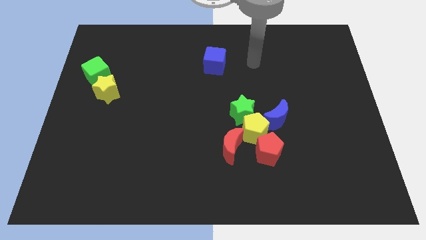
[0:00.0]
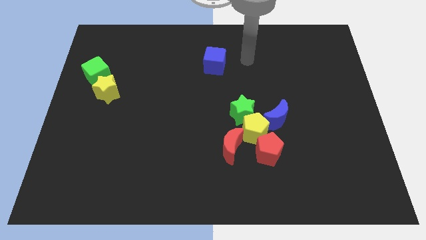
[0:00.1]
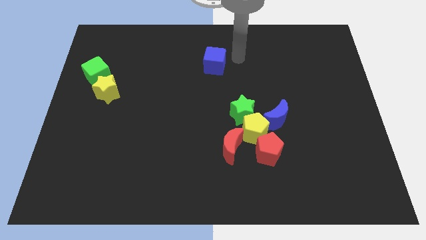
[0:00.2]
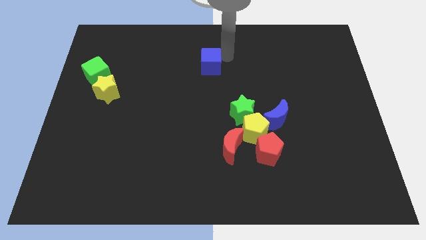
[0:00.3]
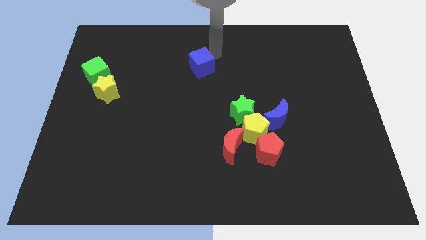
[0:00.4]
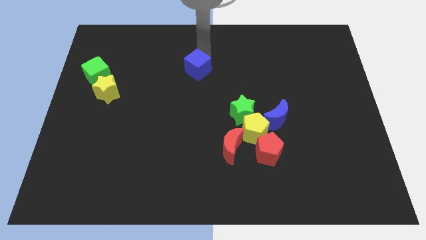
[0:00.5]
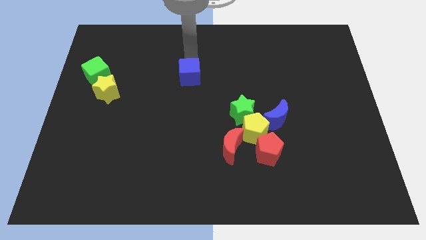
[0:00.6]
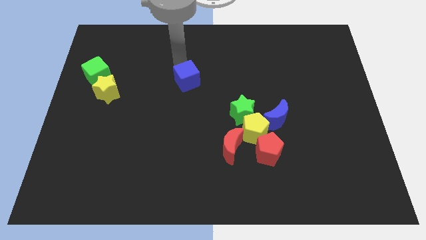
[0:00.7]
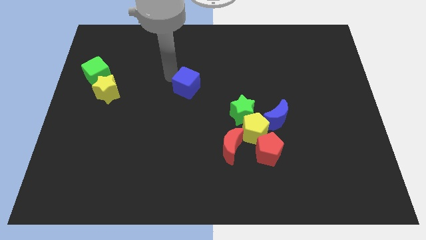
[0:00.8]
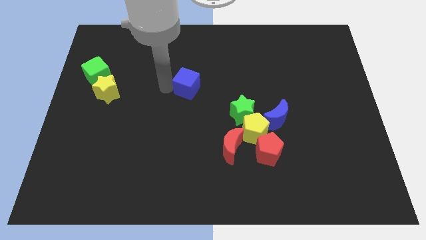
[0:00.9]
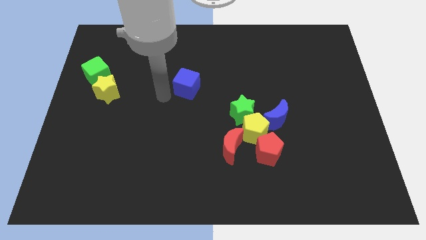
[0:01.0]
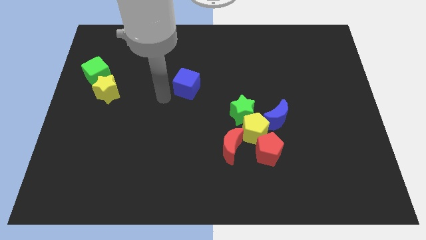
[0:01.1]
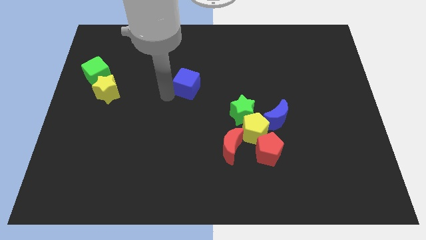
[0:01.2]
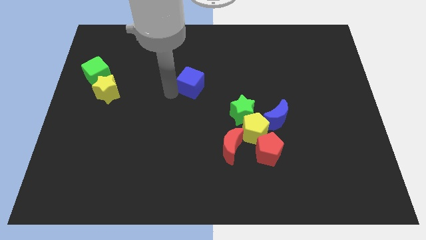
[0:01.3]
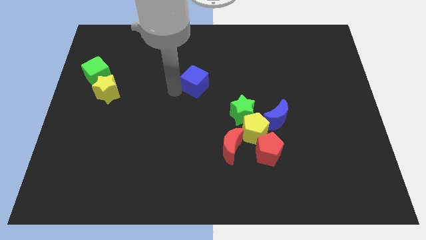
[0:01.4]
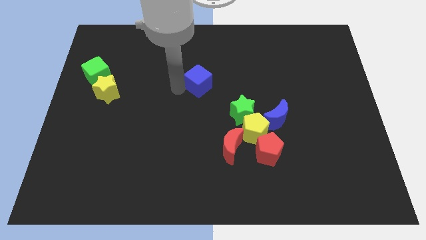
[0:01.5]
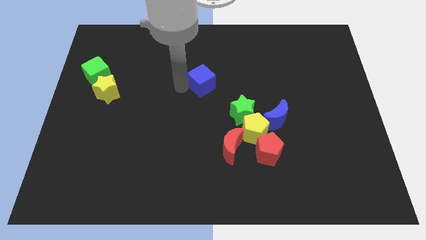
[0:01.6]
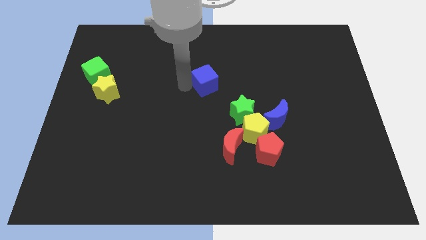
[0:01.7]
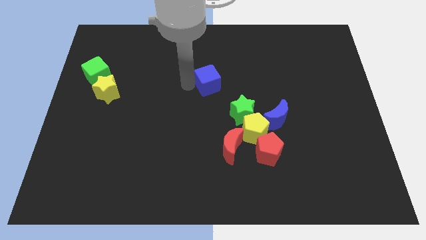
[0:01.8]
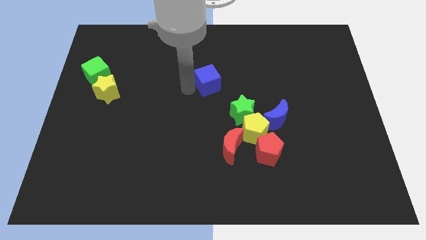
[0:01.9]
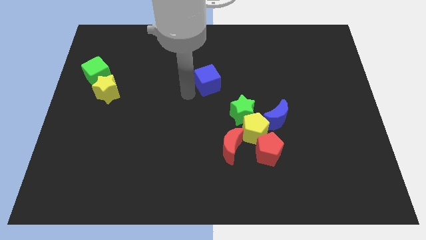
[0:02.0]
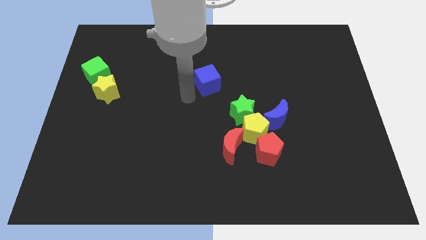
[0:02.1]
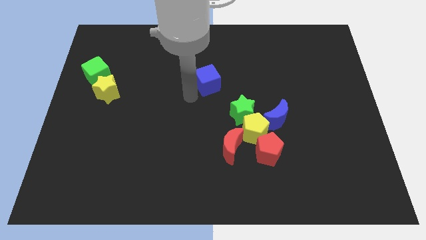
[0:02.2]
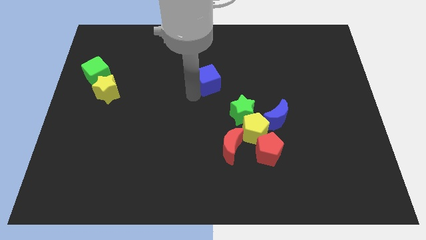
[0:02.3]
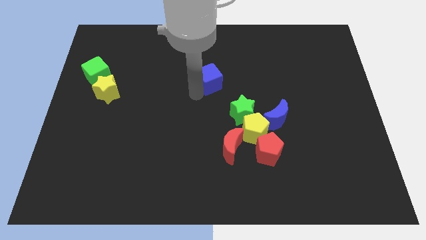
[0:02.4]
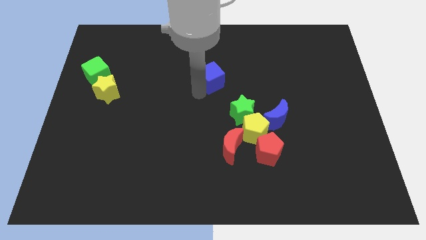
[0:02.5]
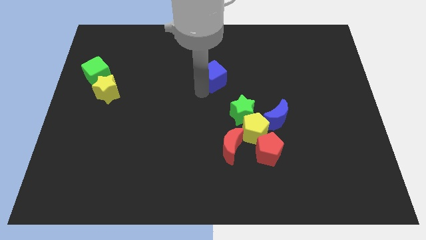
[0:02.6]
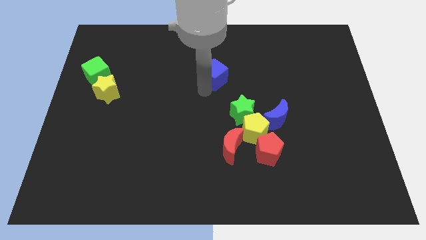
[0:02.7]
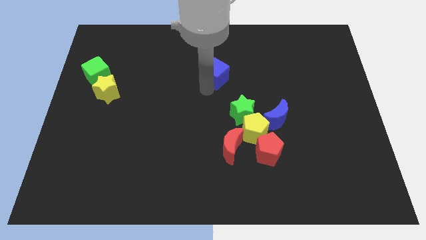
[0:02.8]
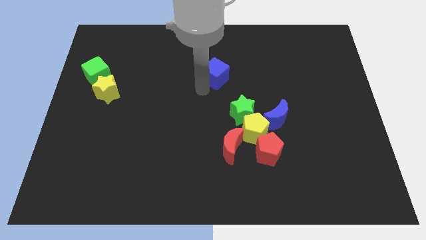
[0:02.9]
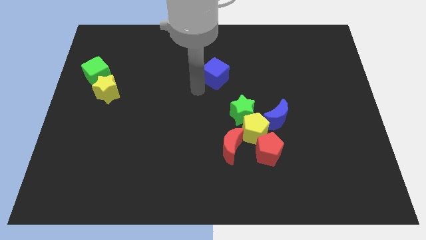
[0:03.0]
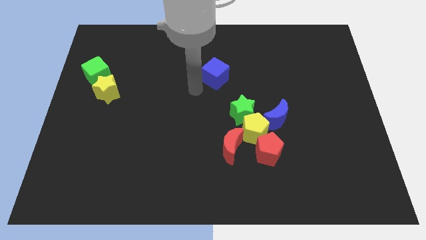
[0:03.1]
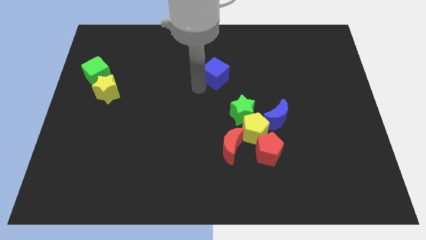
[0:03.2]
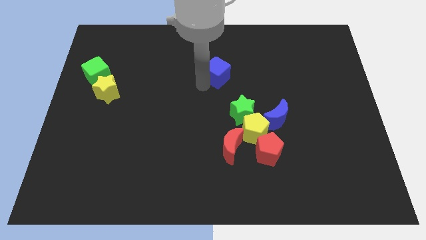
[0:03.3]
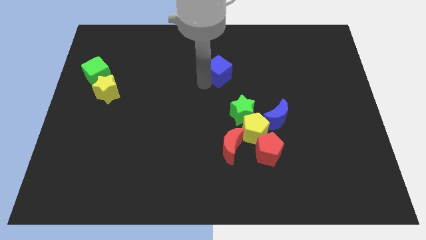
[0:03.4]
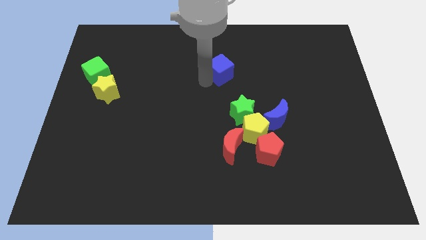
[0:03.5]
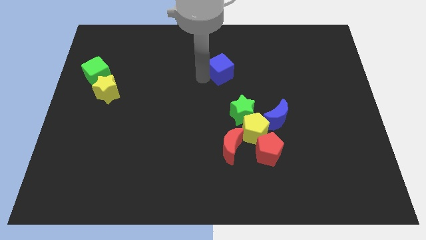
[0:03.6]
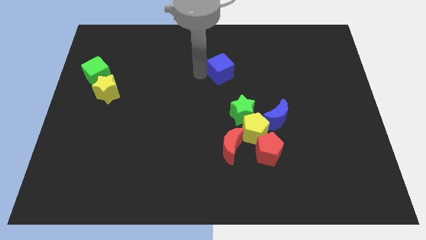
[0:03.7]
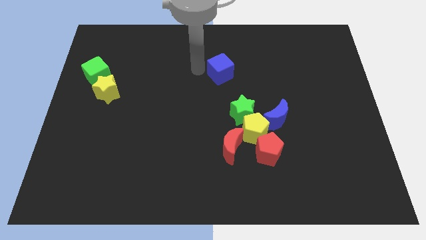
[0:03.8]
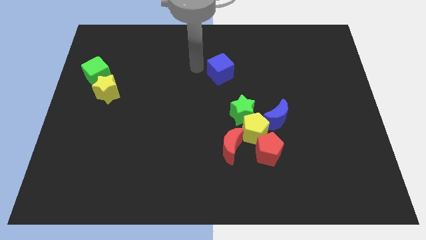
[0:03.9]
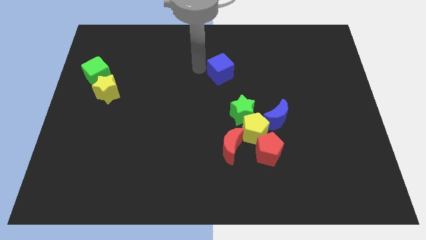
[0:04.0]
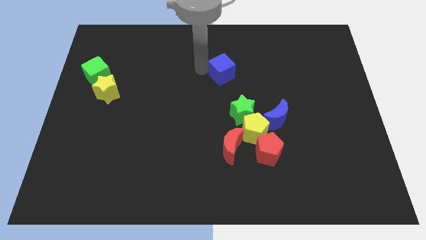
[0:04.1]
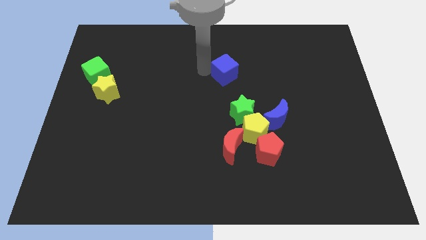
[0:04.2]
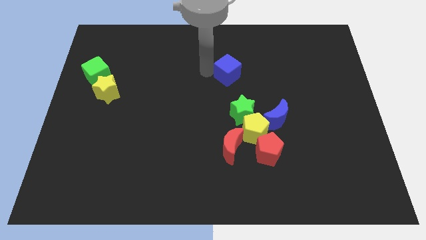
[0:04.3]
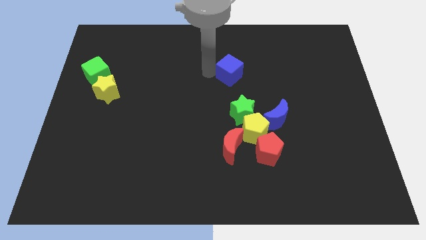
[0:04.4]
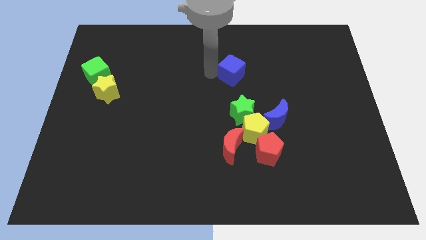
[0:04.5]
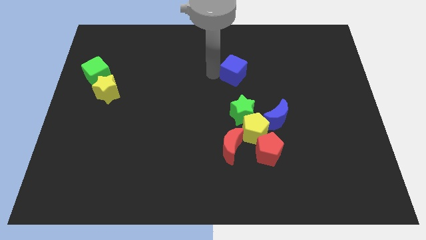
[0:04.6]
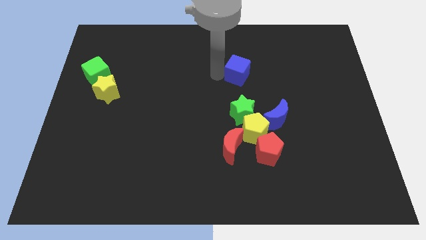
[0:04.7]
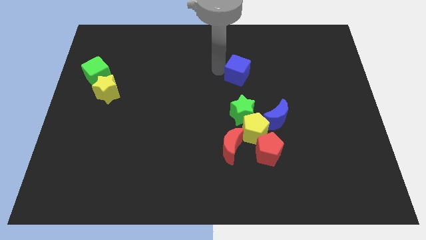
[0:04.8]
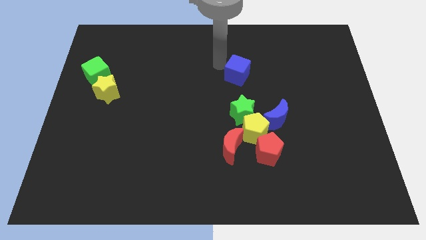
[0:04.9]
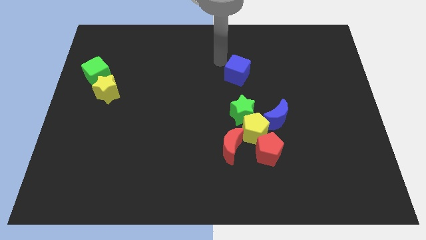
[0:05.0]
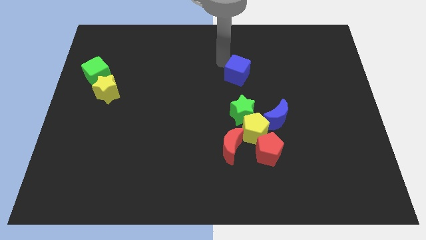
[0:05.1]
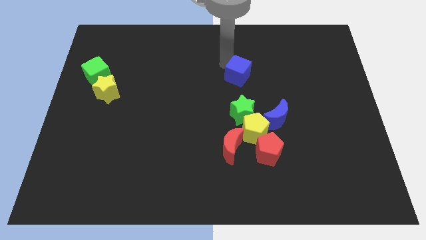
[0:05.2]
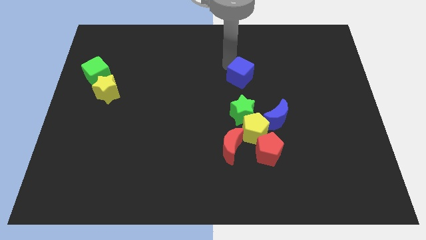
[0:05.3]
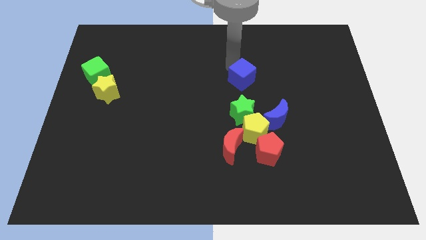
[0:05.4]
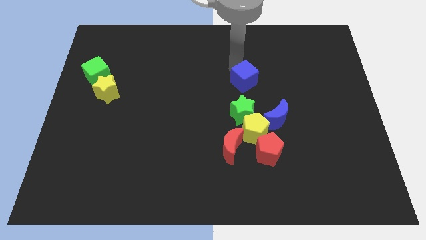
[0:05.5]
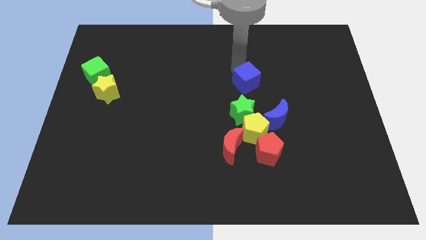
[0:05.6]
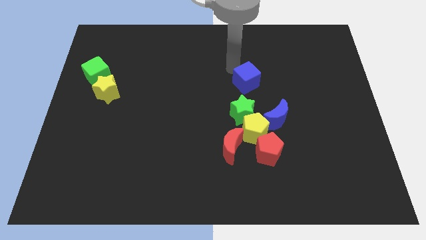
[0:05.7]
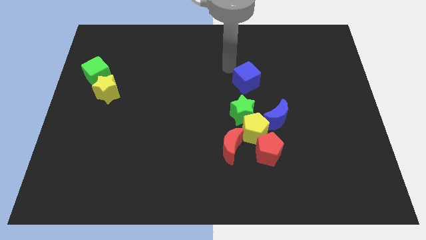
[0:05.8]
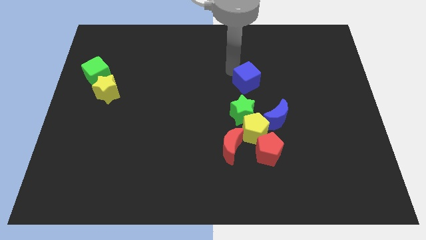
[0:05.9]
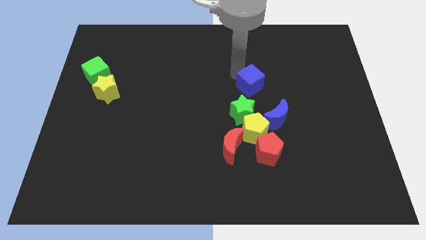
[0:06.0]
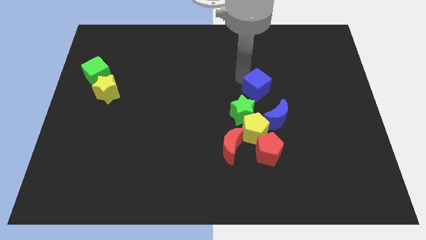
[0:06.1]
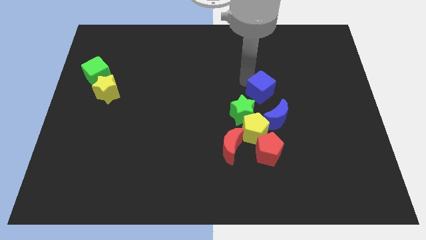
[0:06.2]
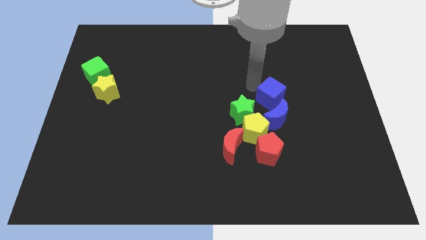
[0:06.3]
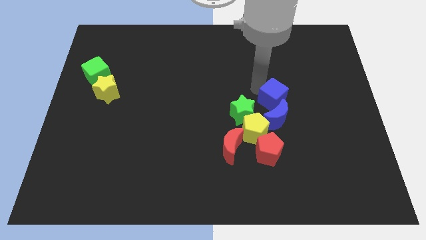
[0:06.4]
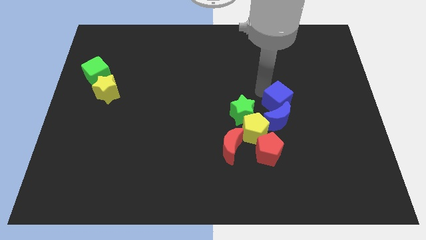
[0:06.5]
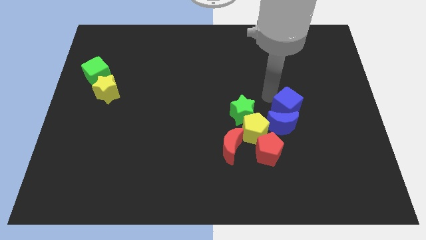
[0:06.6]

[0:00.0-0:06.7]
move the blue cube diagonally downwards and right

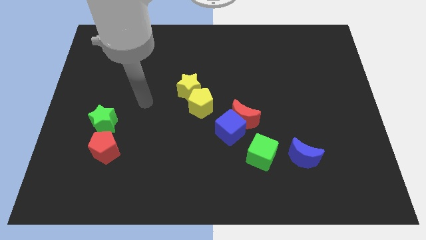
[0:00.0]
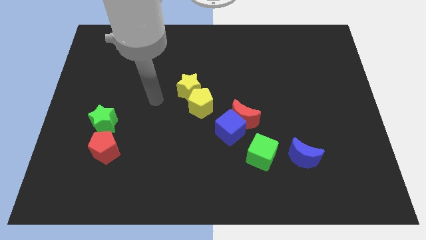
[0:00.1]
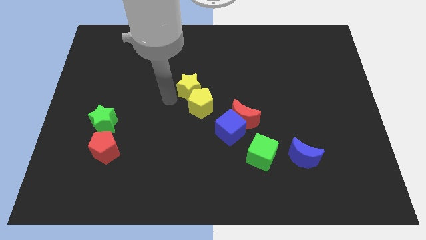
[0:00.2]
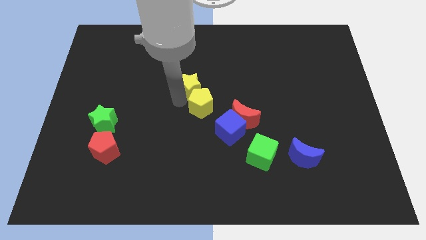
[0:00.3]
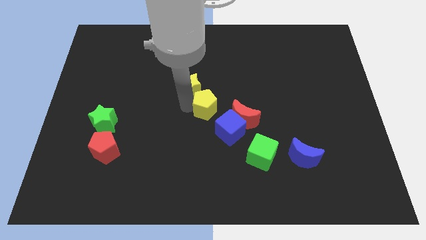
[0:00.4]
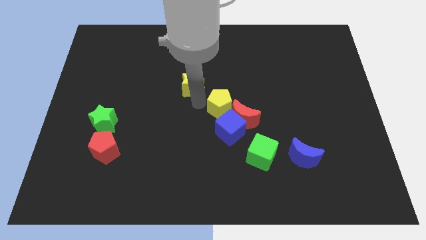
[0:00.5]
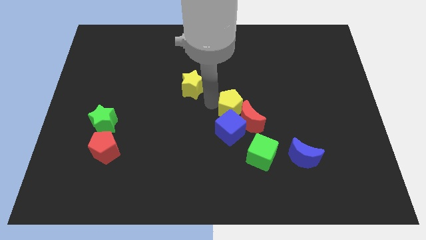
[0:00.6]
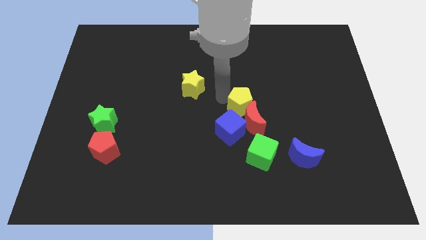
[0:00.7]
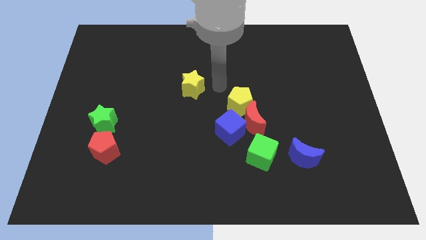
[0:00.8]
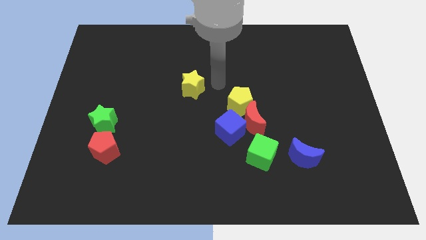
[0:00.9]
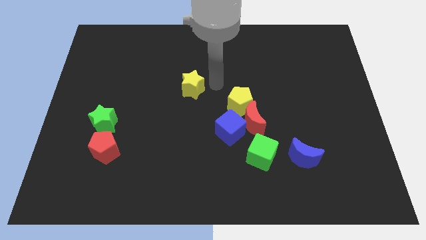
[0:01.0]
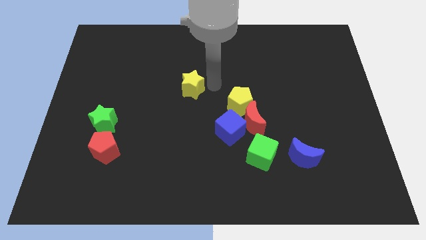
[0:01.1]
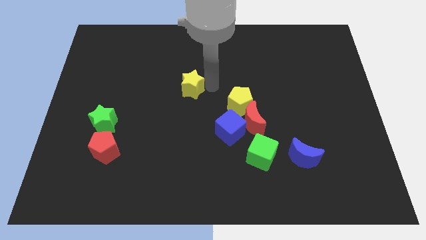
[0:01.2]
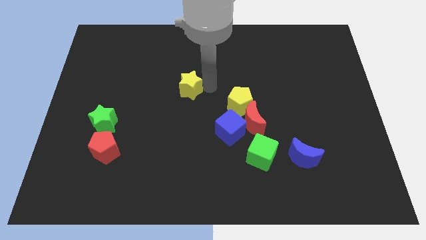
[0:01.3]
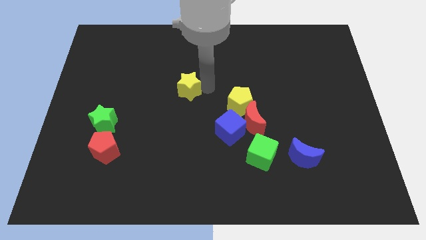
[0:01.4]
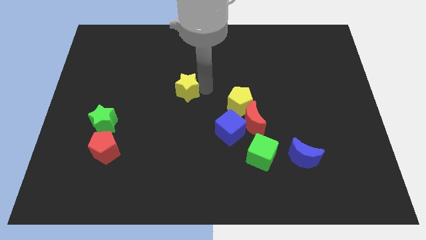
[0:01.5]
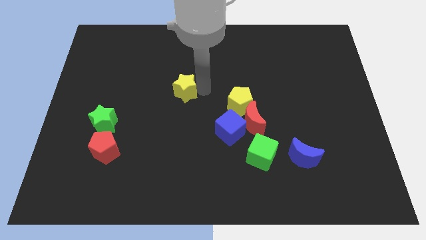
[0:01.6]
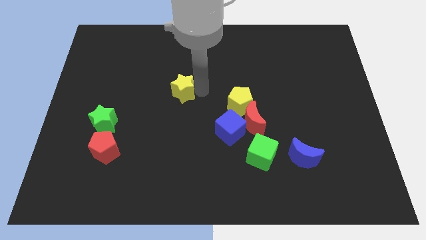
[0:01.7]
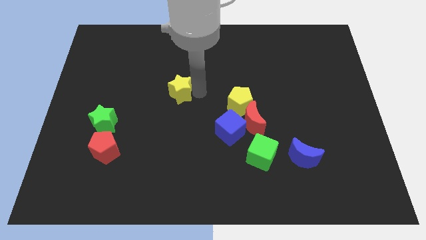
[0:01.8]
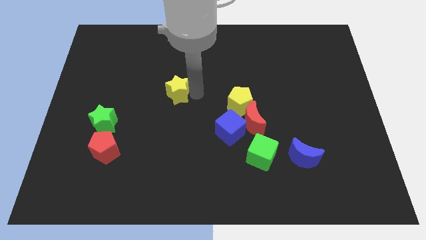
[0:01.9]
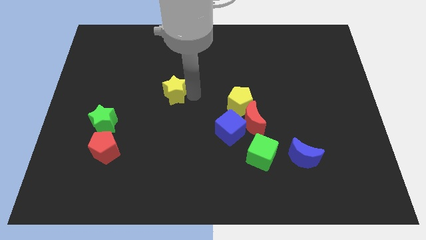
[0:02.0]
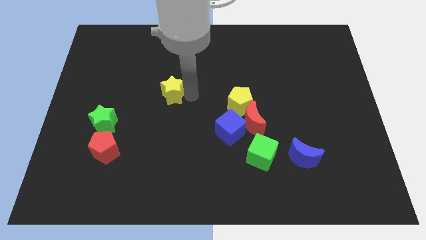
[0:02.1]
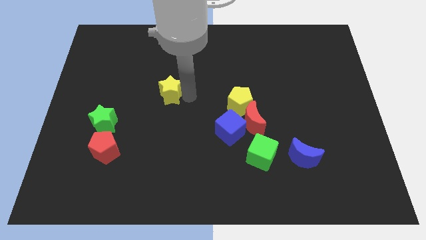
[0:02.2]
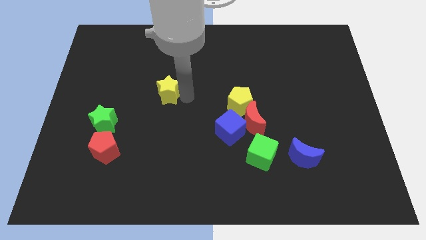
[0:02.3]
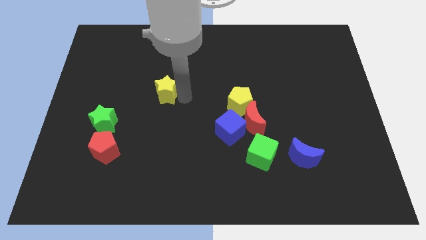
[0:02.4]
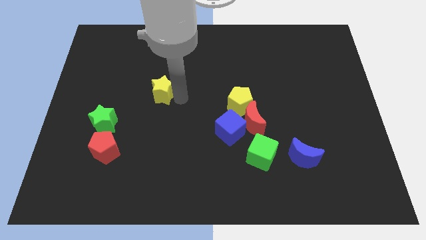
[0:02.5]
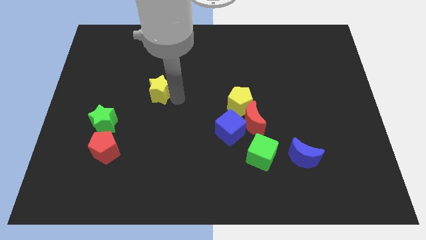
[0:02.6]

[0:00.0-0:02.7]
slide the yellow star to the left a little bit
